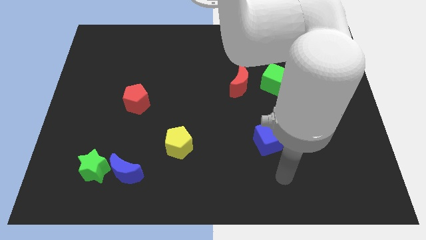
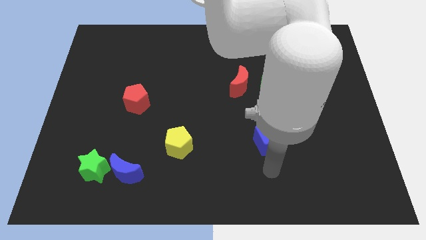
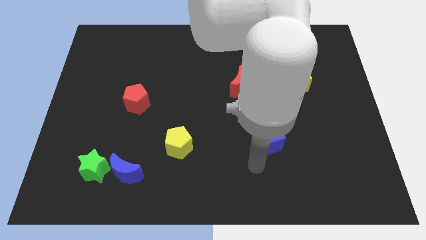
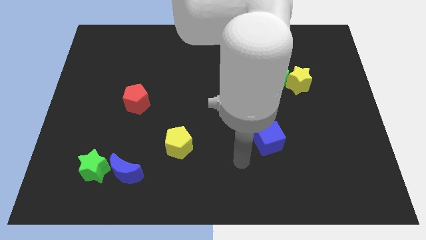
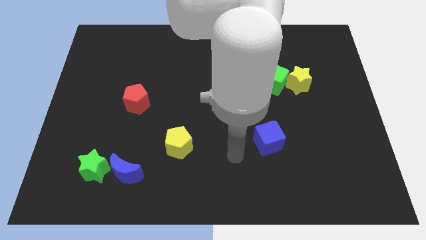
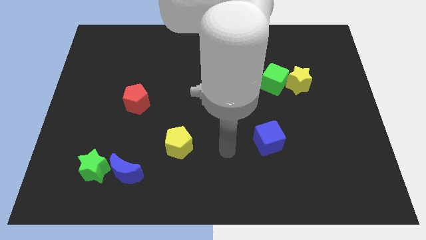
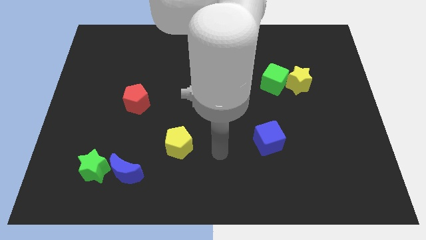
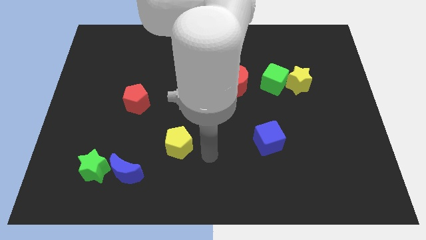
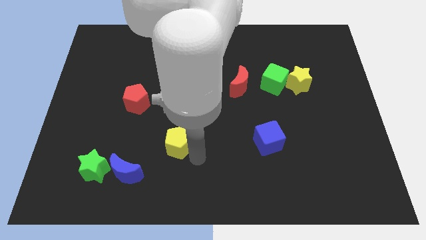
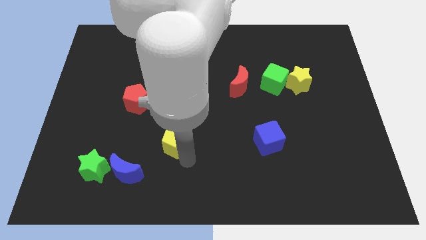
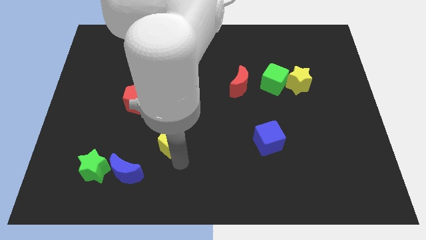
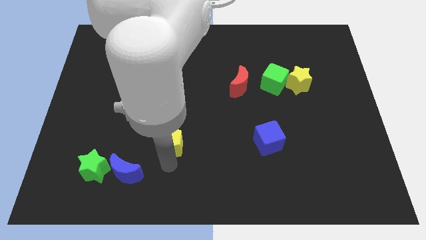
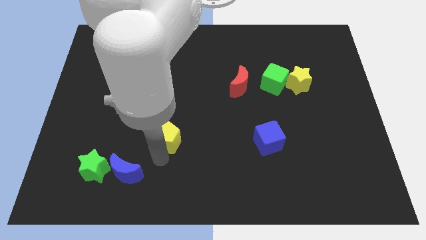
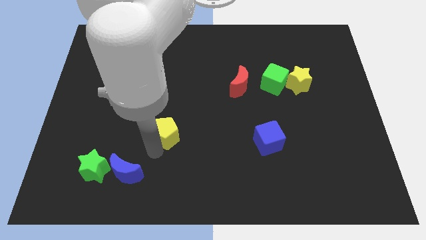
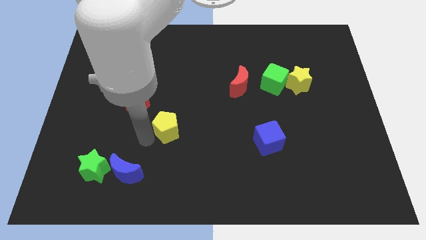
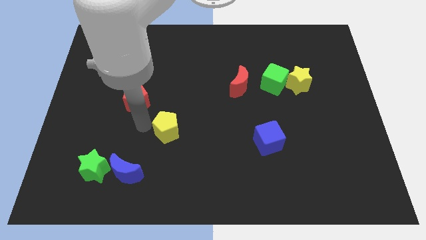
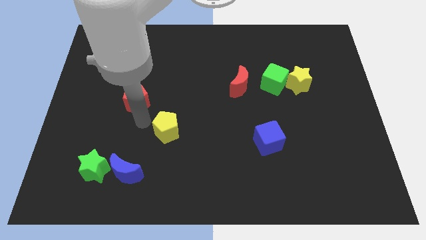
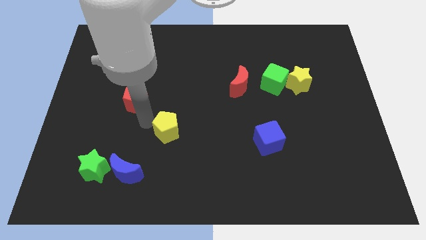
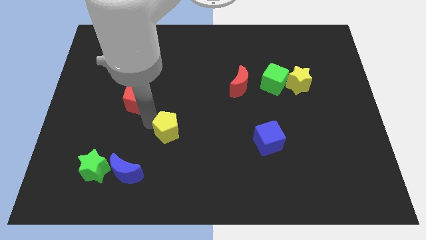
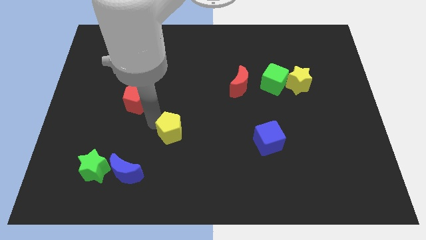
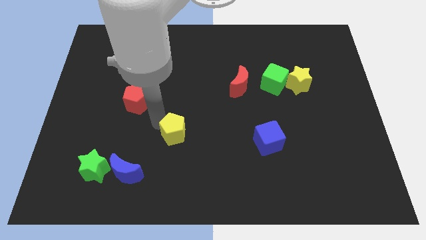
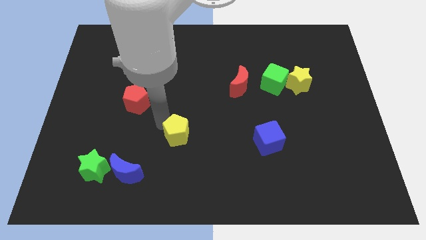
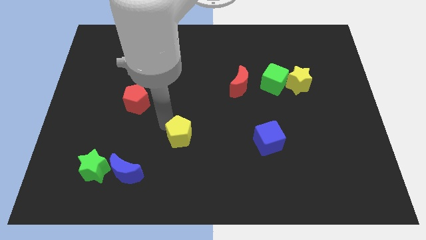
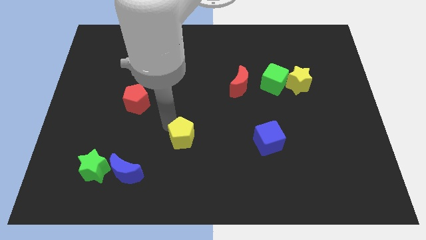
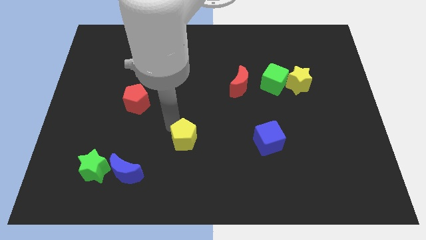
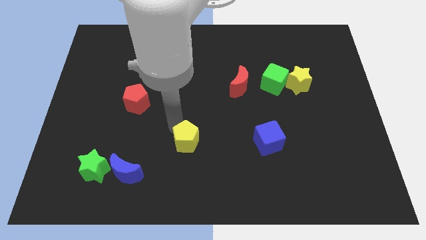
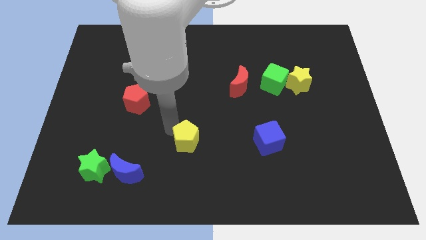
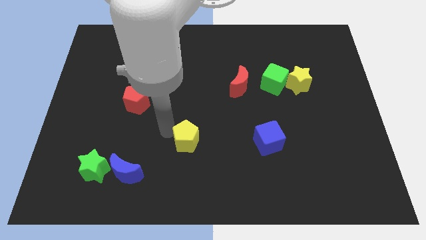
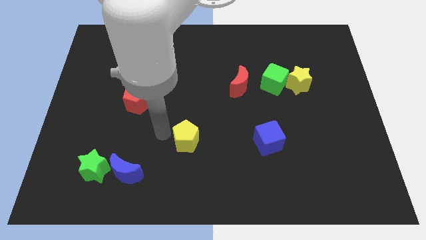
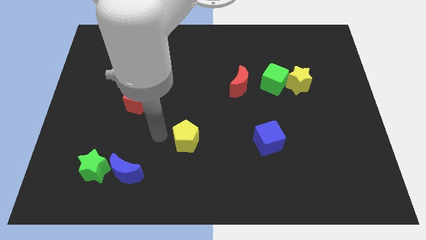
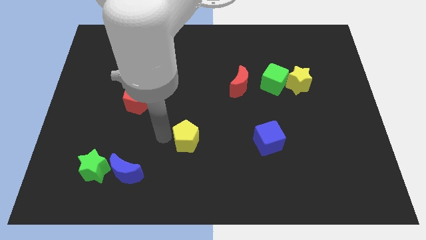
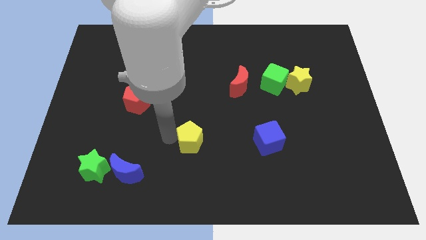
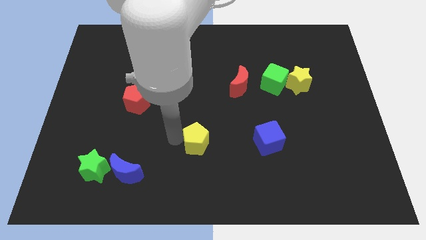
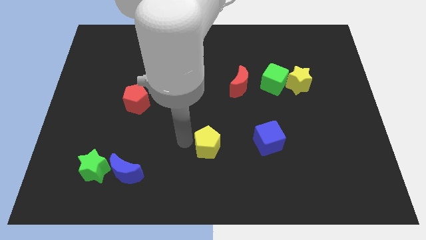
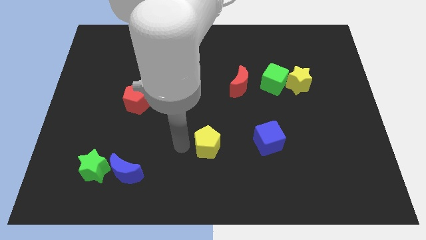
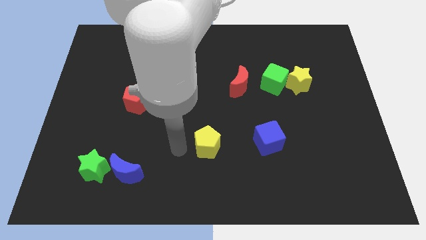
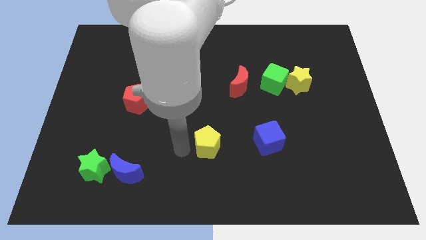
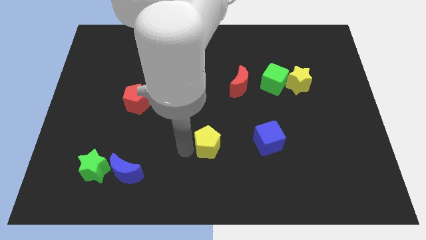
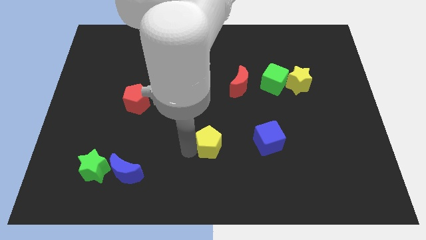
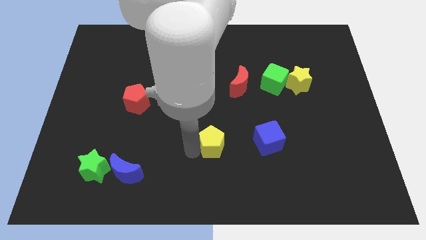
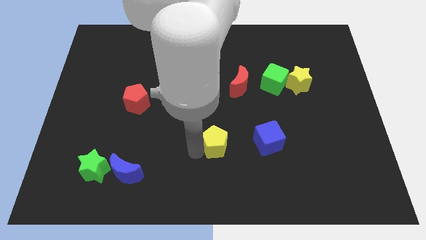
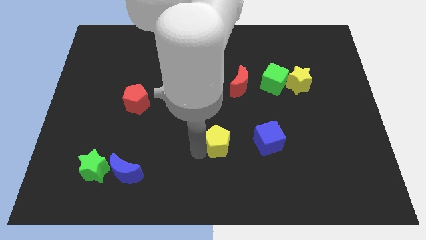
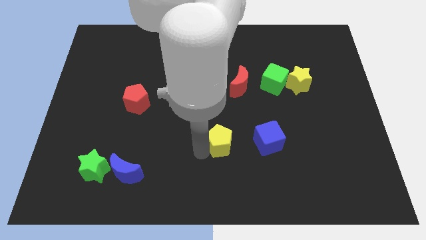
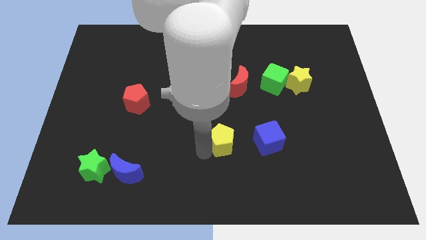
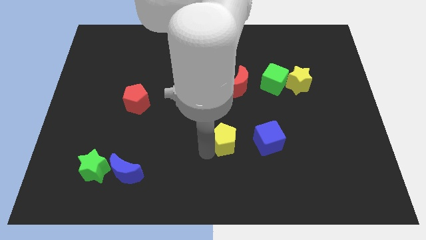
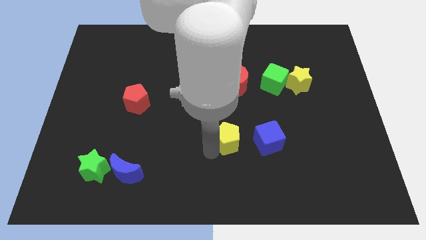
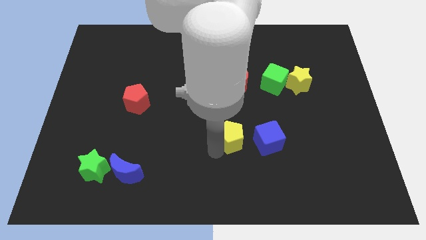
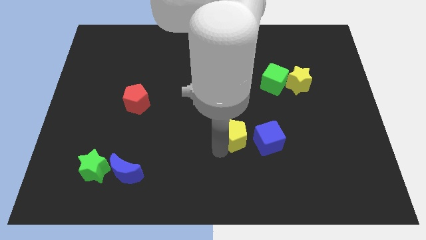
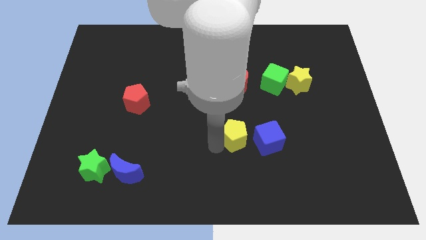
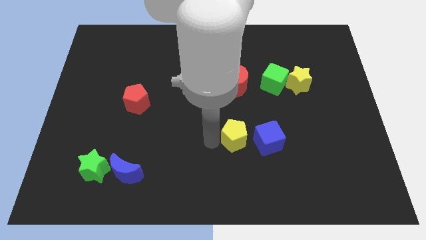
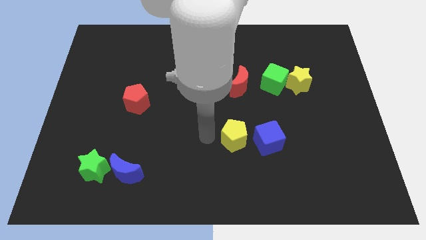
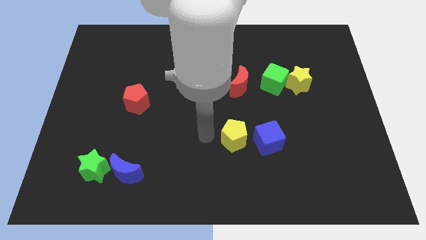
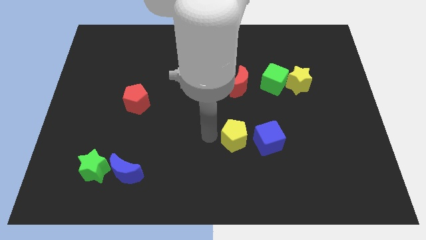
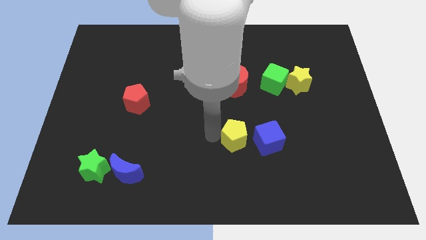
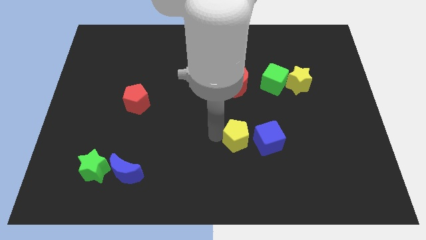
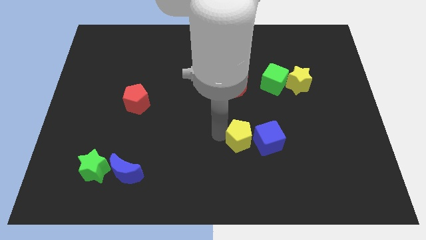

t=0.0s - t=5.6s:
move the yellow pentagon to the blue cube

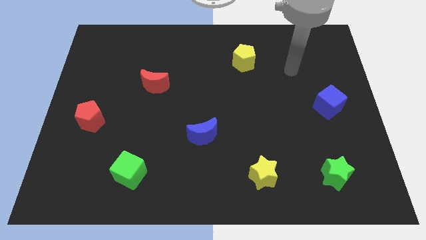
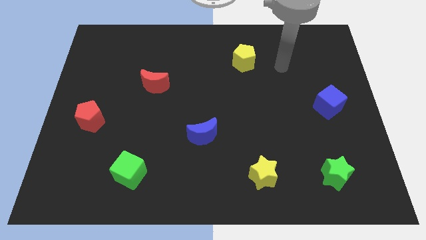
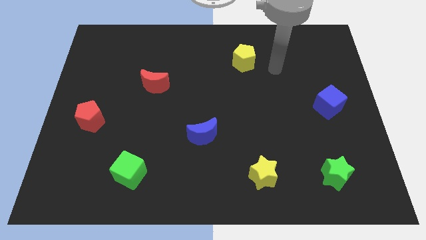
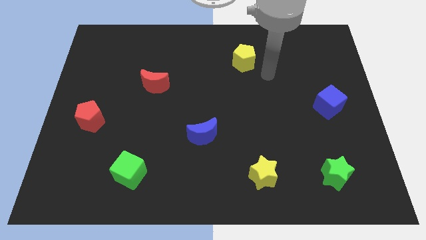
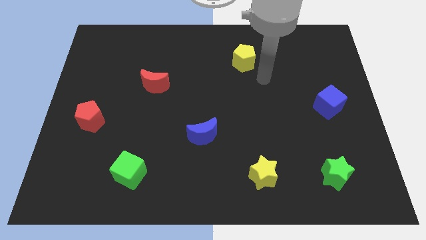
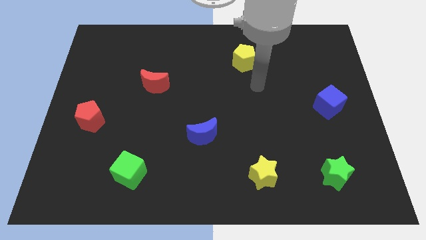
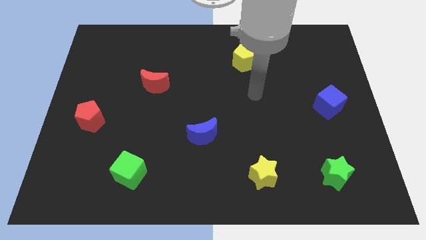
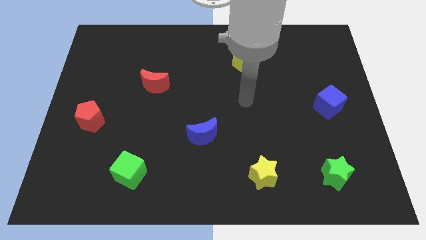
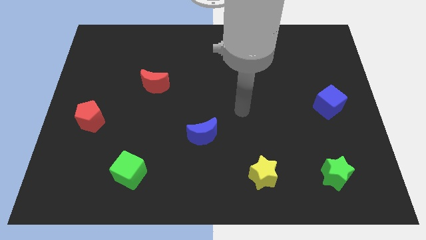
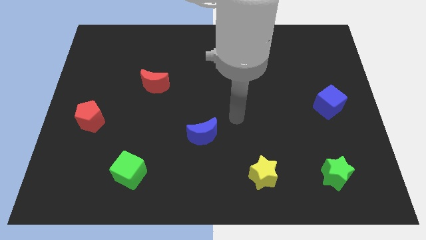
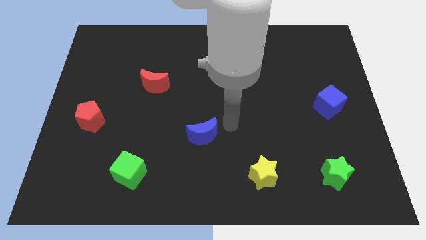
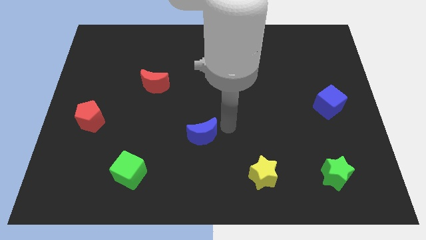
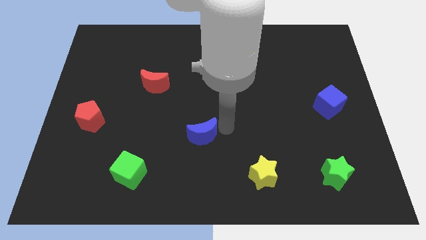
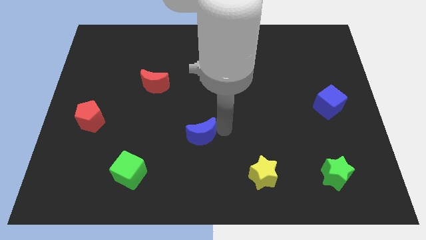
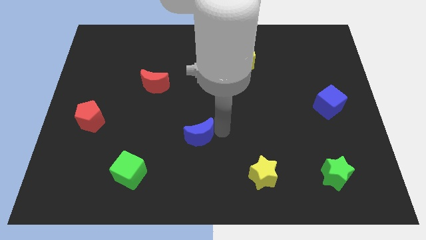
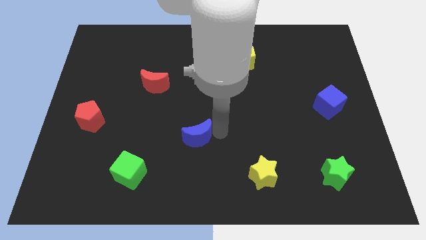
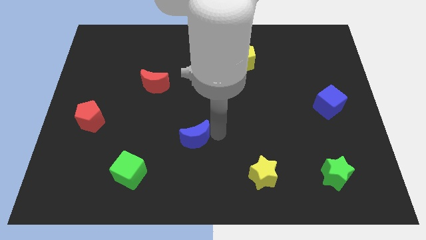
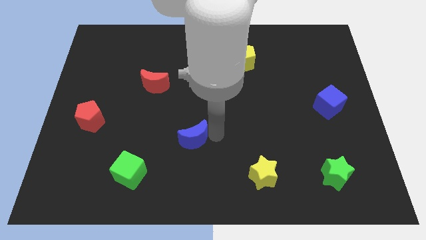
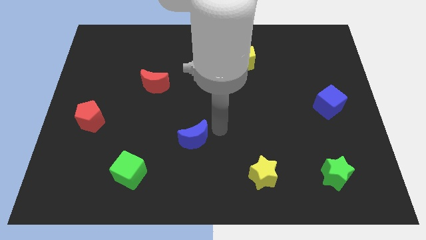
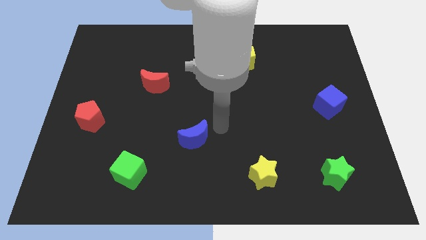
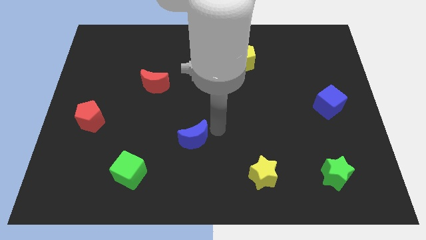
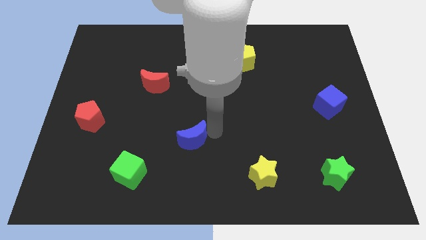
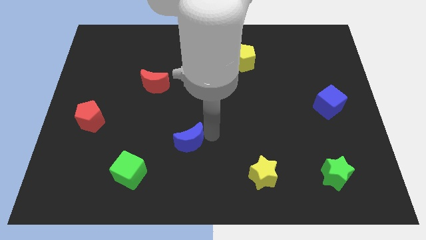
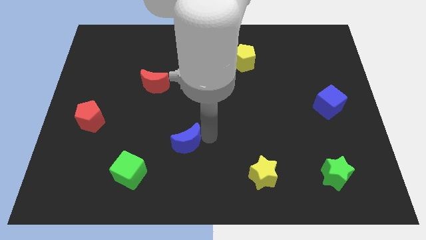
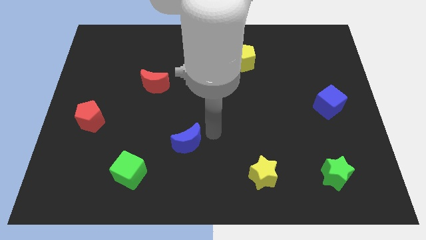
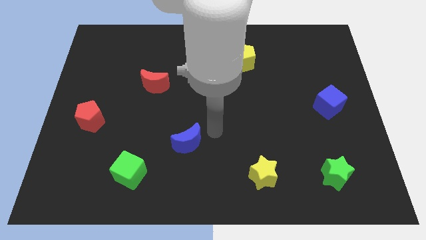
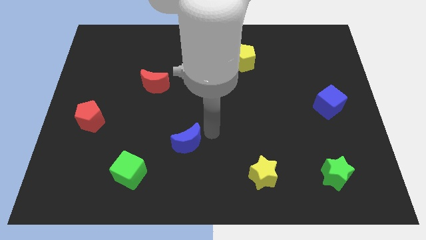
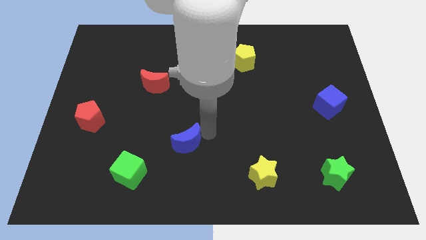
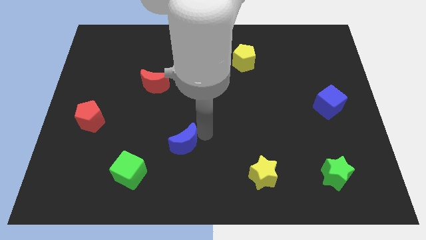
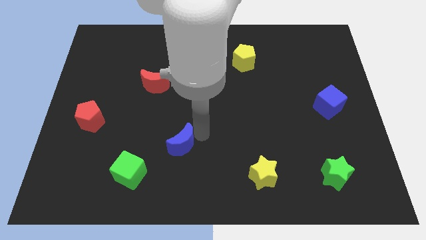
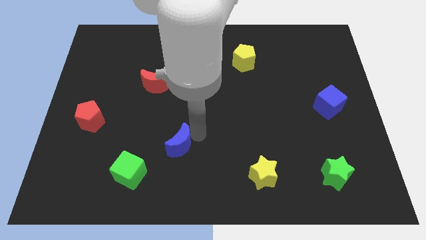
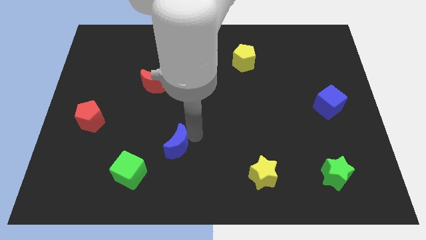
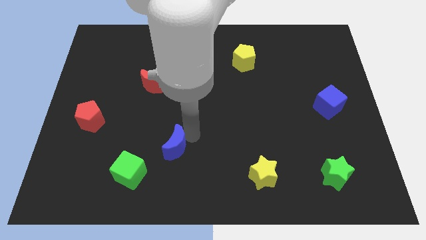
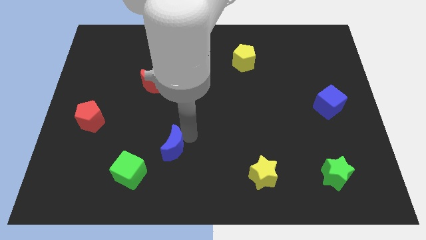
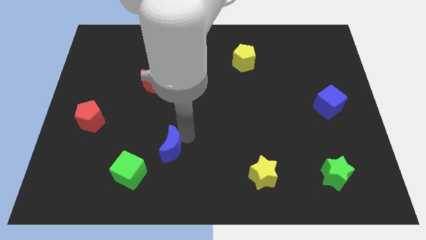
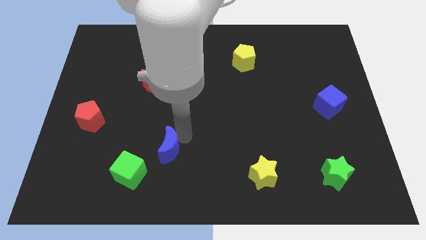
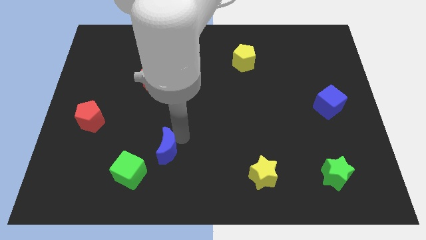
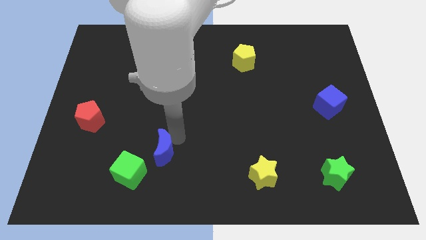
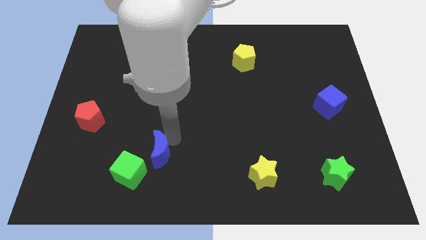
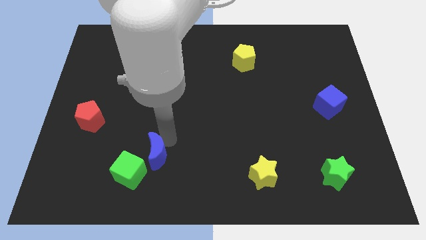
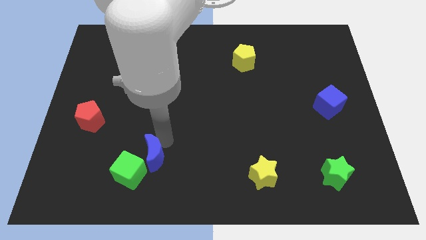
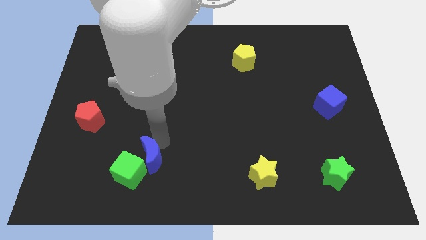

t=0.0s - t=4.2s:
move the blue moon close to the green cube
